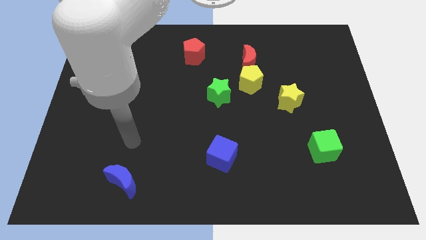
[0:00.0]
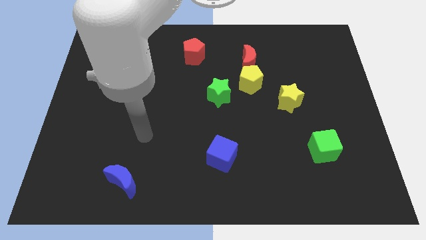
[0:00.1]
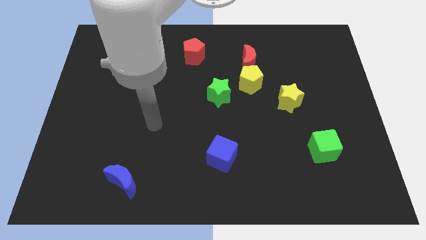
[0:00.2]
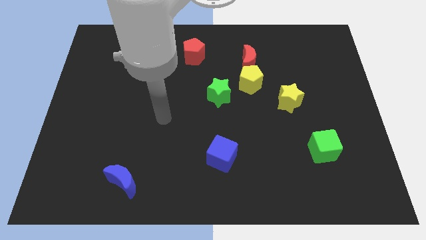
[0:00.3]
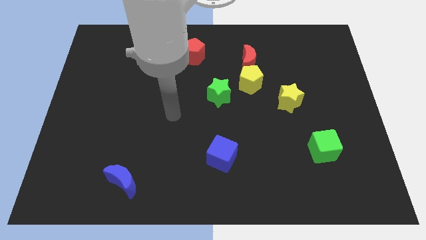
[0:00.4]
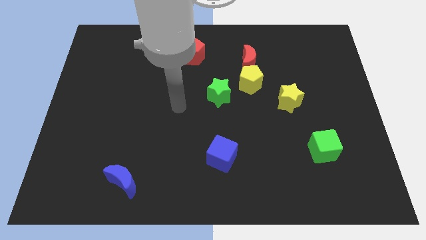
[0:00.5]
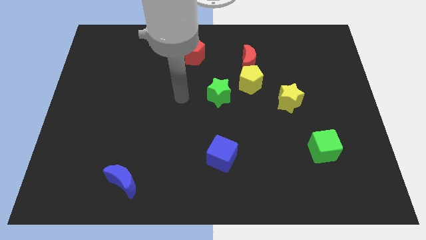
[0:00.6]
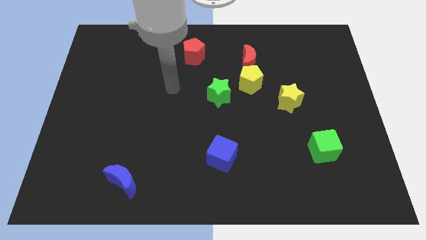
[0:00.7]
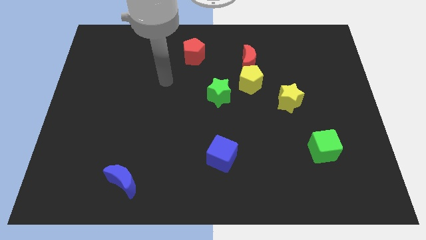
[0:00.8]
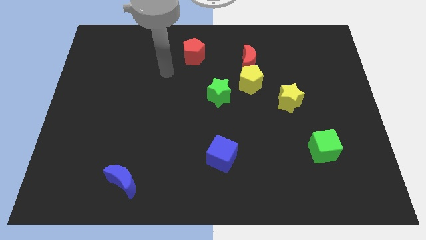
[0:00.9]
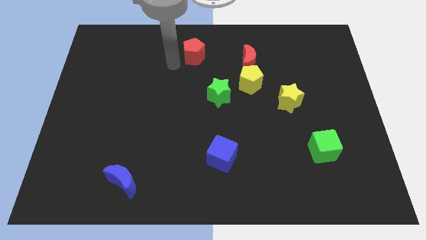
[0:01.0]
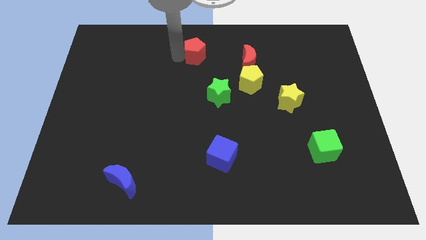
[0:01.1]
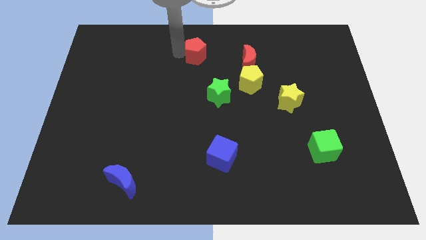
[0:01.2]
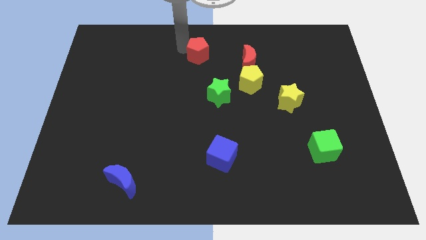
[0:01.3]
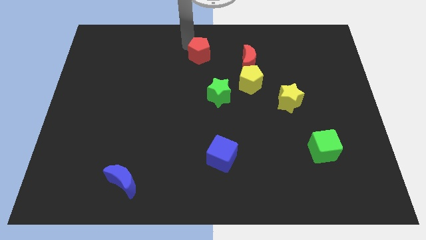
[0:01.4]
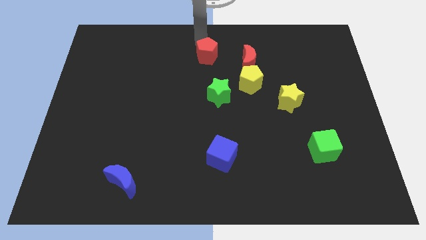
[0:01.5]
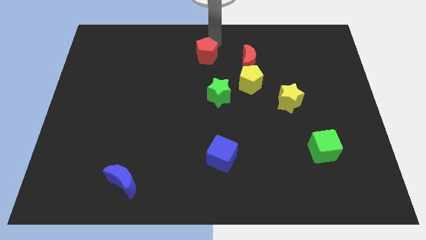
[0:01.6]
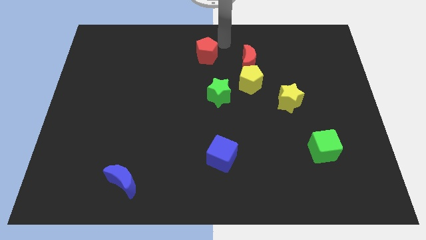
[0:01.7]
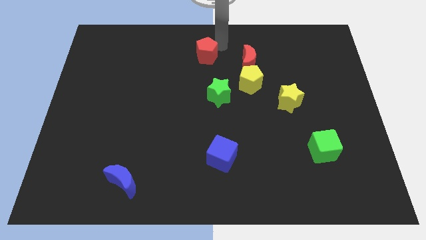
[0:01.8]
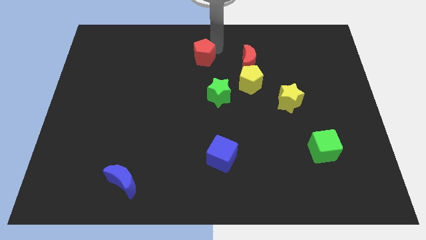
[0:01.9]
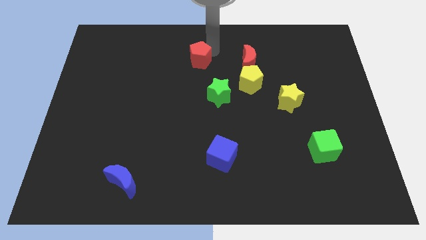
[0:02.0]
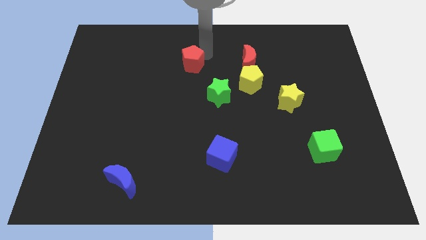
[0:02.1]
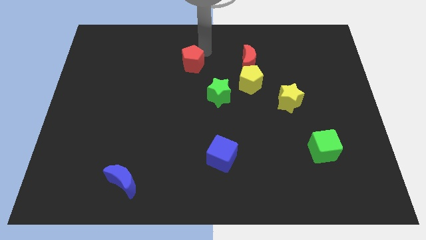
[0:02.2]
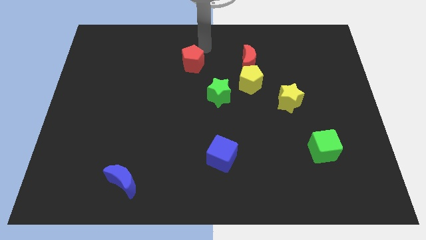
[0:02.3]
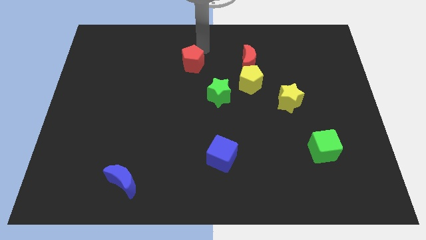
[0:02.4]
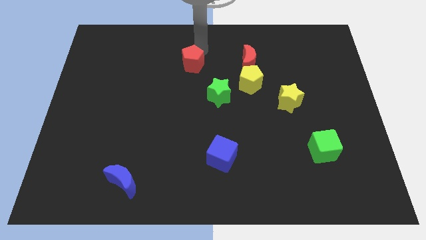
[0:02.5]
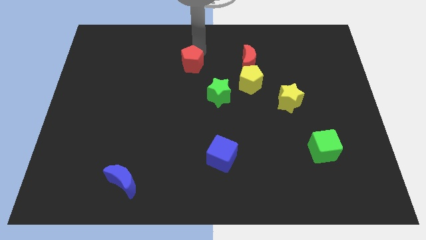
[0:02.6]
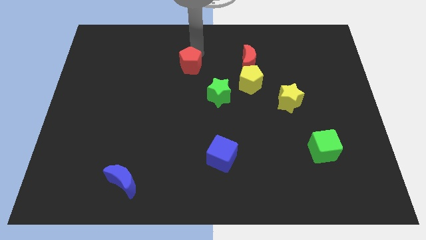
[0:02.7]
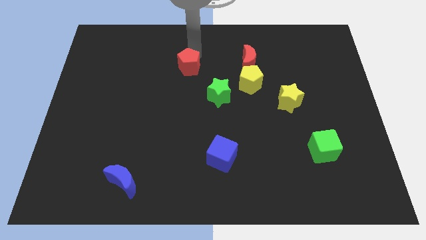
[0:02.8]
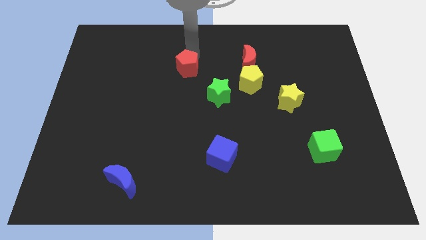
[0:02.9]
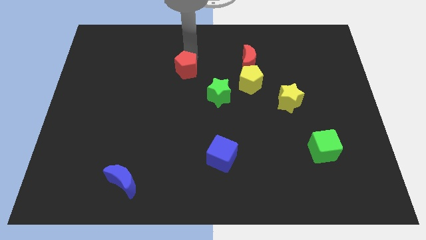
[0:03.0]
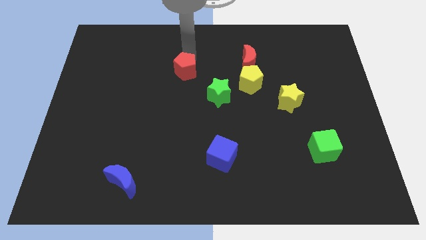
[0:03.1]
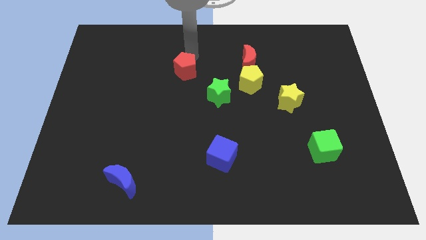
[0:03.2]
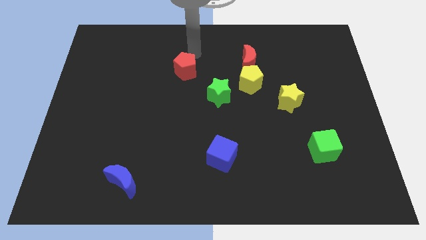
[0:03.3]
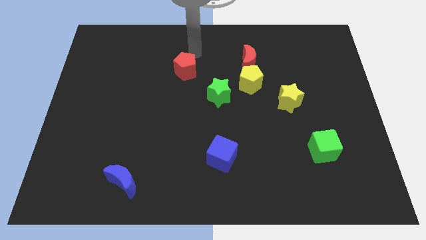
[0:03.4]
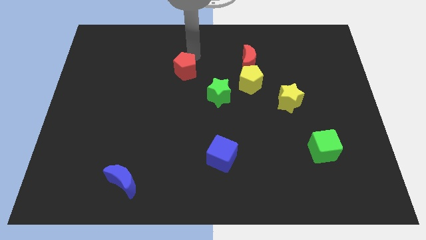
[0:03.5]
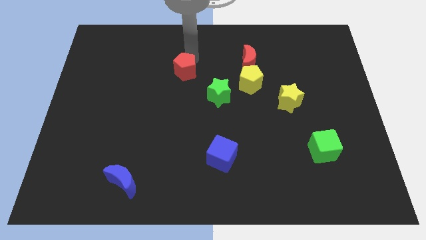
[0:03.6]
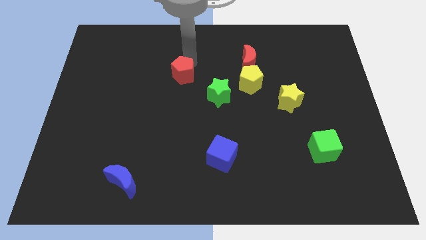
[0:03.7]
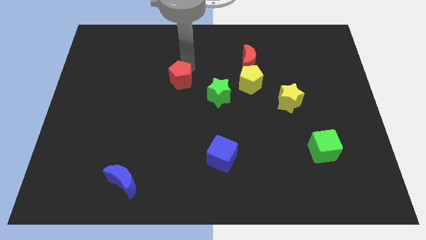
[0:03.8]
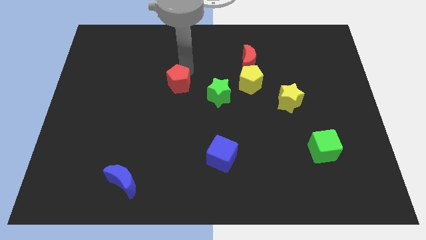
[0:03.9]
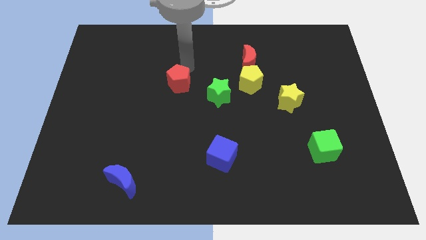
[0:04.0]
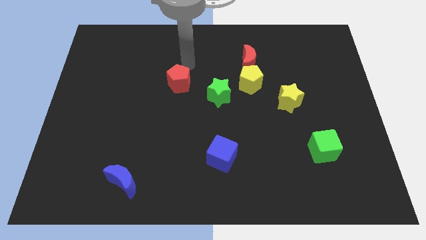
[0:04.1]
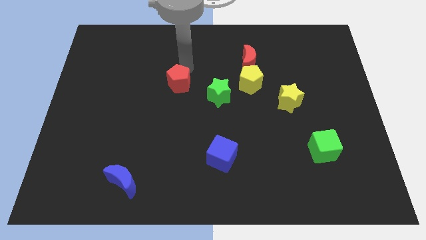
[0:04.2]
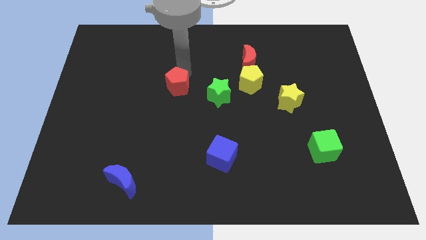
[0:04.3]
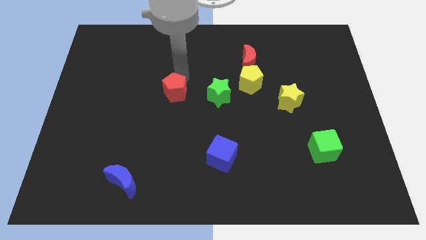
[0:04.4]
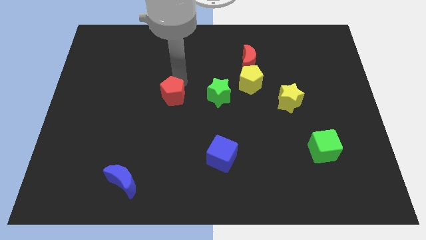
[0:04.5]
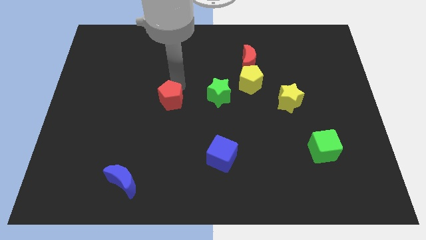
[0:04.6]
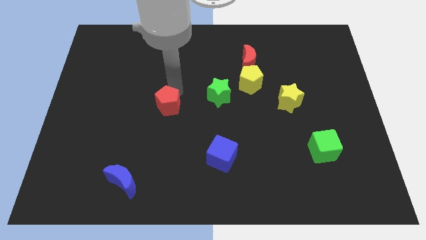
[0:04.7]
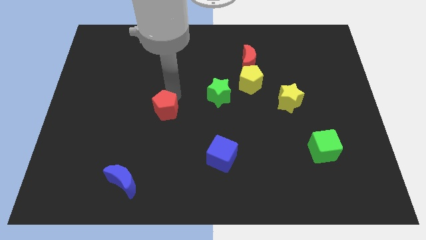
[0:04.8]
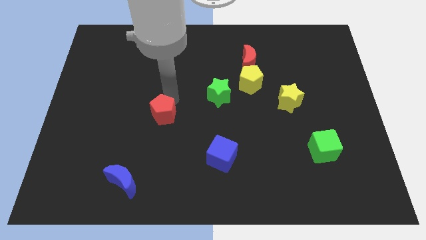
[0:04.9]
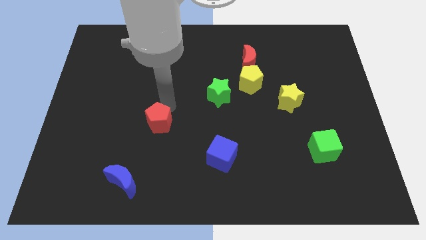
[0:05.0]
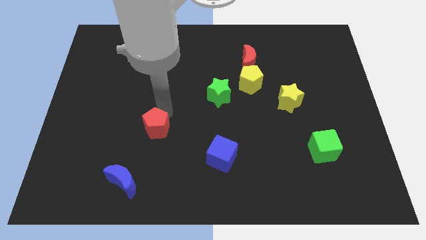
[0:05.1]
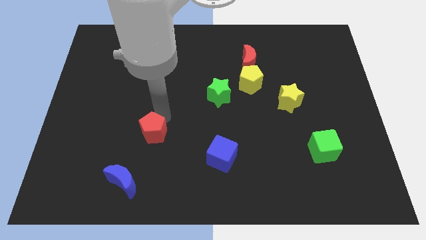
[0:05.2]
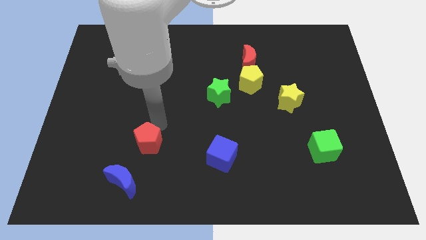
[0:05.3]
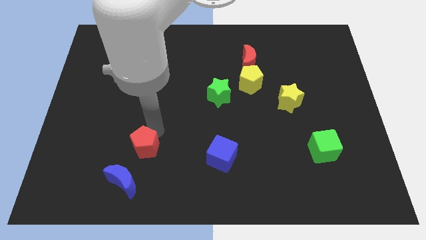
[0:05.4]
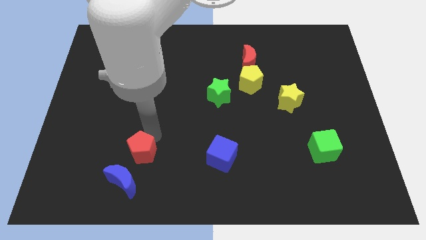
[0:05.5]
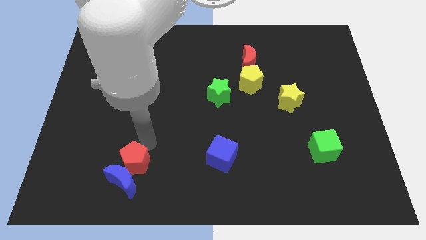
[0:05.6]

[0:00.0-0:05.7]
put the red pentagon towards the blue moon

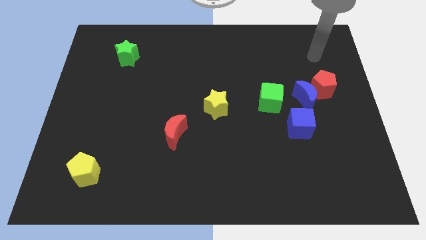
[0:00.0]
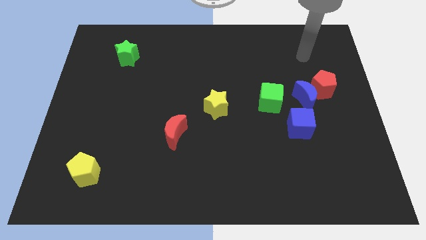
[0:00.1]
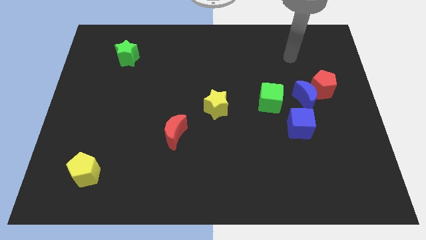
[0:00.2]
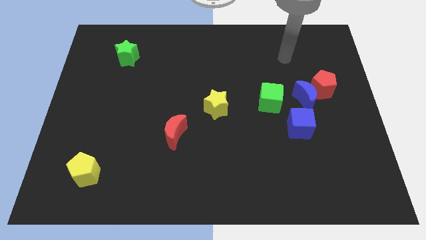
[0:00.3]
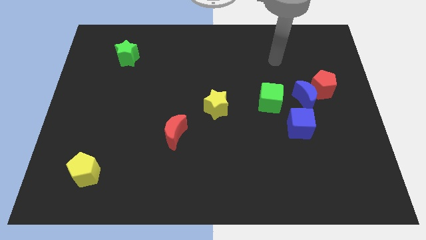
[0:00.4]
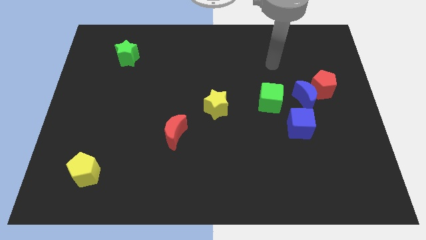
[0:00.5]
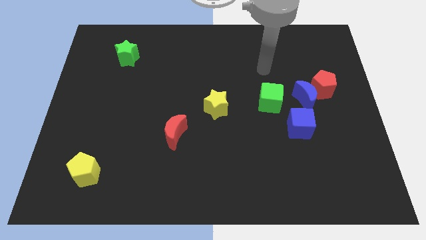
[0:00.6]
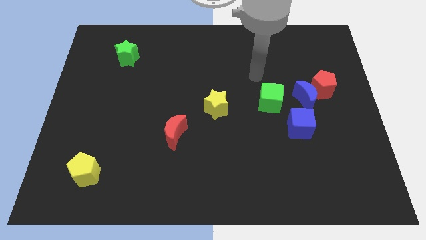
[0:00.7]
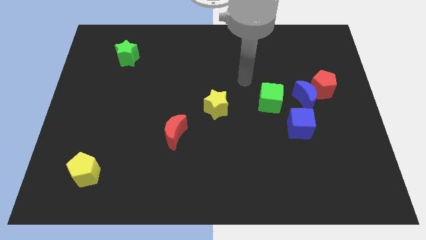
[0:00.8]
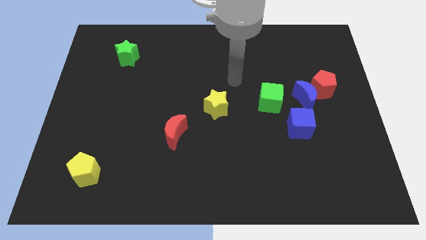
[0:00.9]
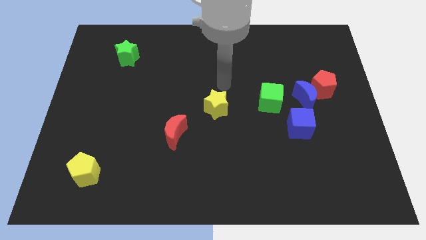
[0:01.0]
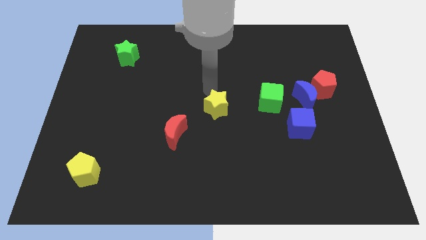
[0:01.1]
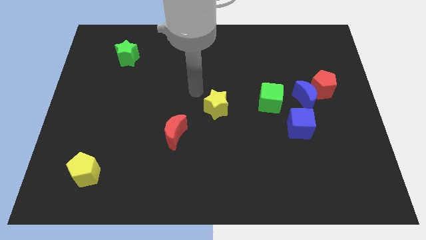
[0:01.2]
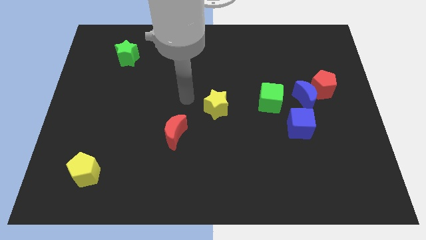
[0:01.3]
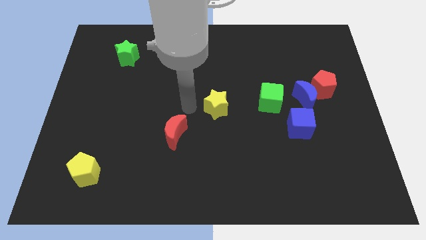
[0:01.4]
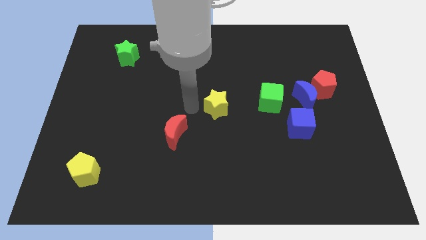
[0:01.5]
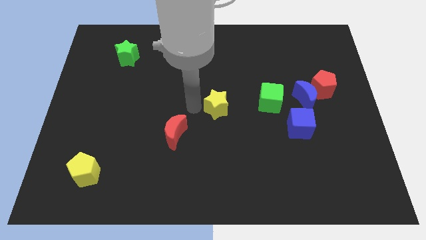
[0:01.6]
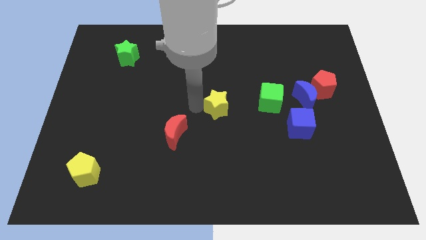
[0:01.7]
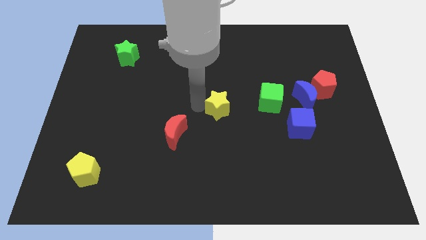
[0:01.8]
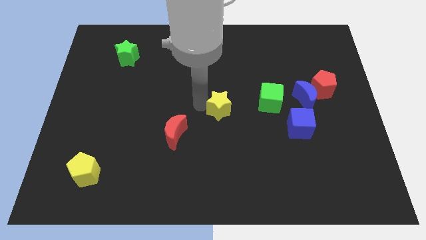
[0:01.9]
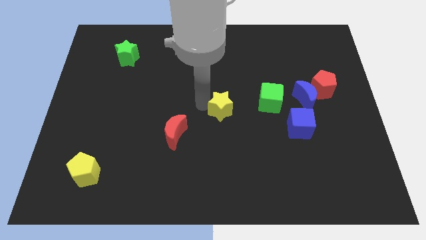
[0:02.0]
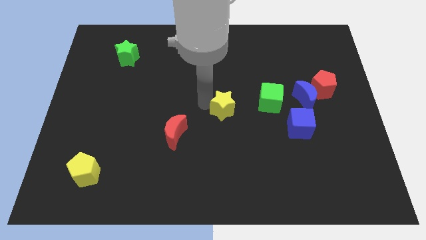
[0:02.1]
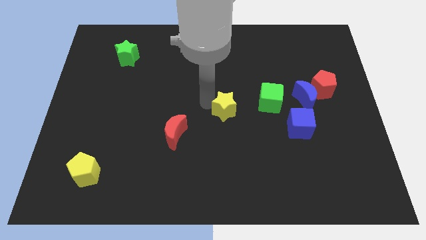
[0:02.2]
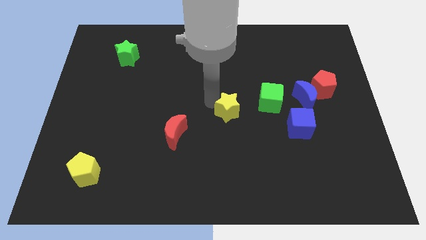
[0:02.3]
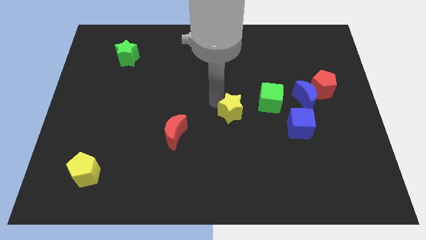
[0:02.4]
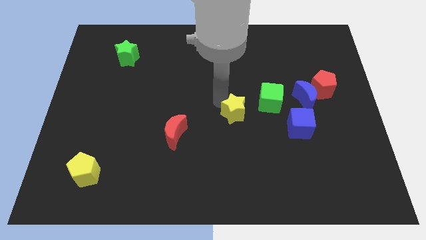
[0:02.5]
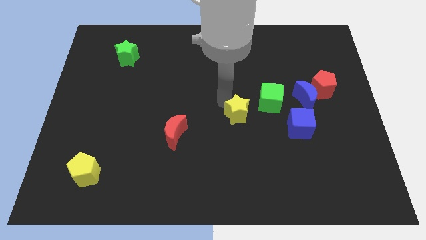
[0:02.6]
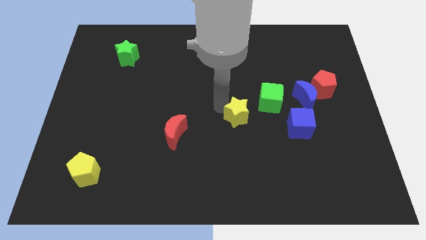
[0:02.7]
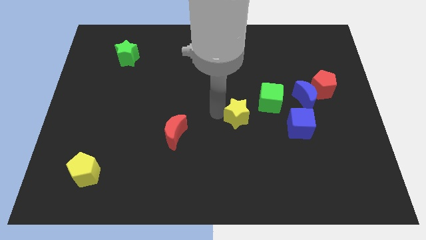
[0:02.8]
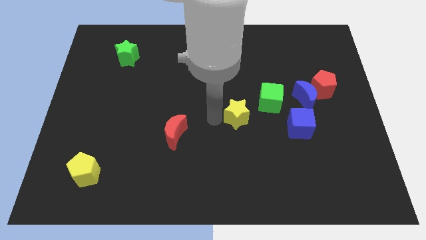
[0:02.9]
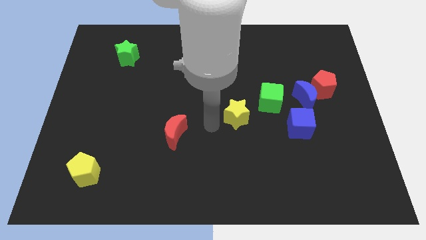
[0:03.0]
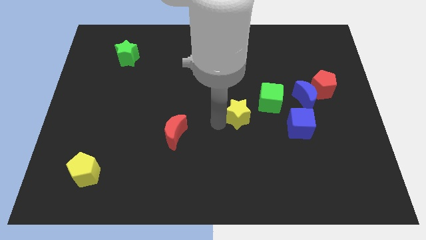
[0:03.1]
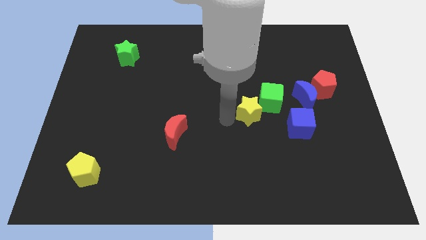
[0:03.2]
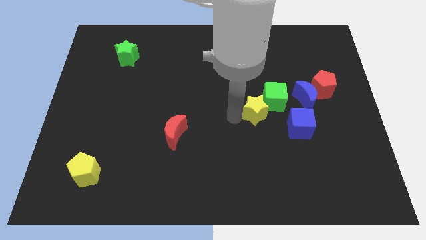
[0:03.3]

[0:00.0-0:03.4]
slide the yellow star towards the green cube
